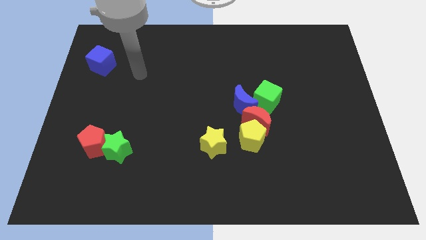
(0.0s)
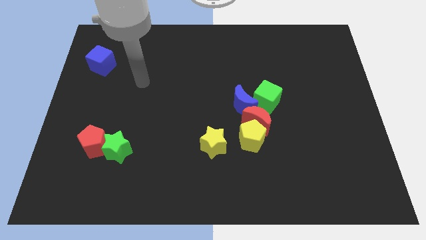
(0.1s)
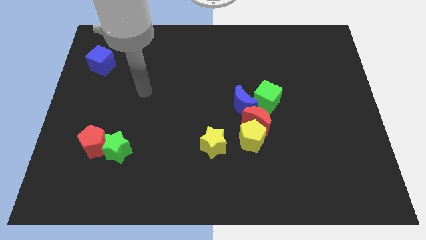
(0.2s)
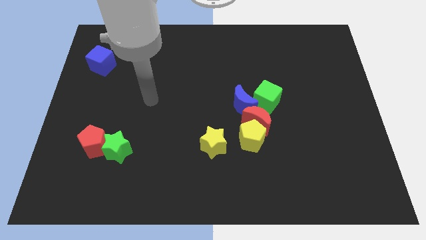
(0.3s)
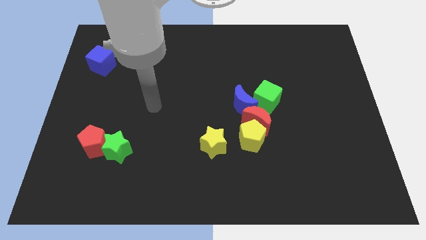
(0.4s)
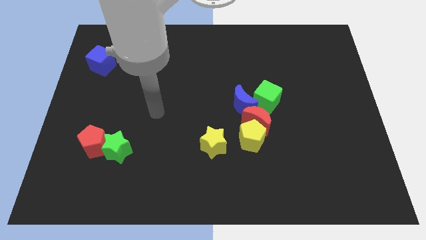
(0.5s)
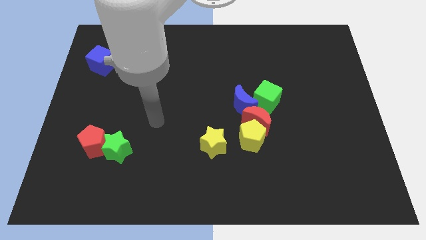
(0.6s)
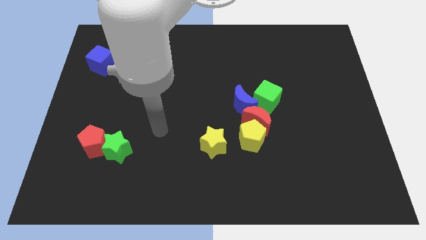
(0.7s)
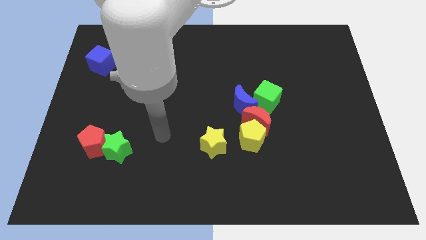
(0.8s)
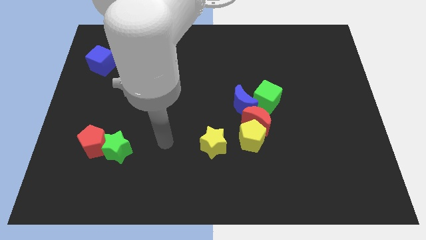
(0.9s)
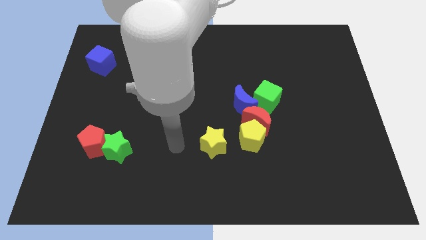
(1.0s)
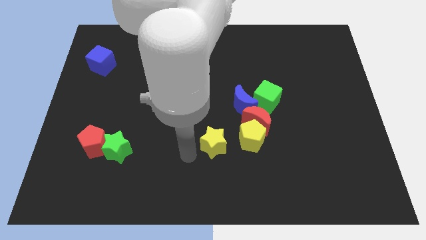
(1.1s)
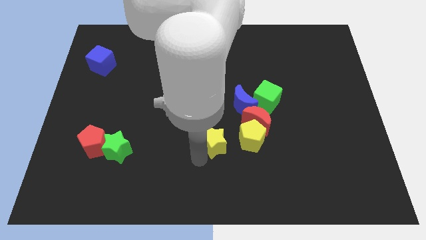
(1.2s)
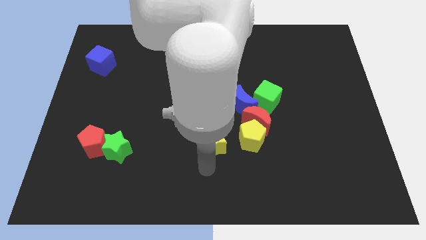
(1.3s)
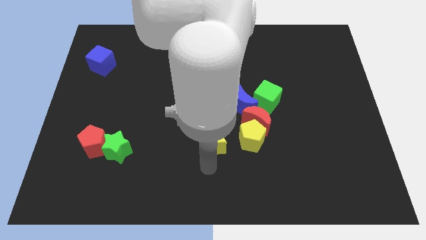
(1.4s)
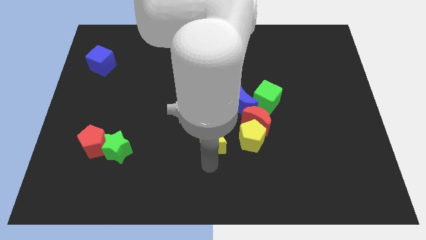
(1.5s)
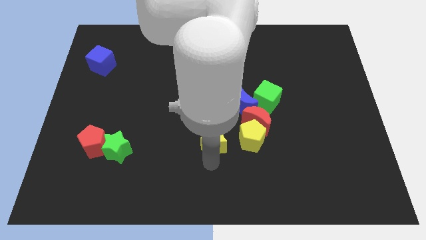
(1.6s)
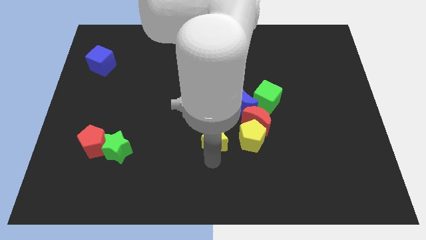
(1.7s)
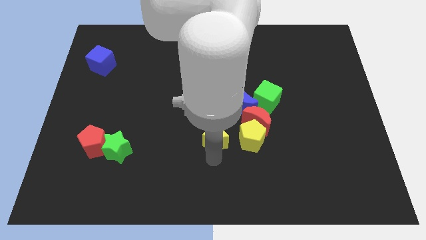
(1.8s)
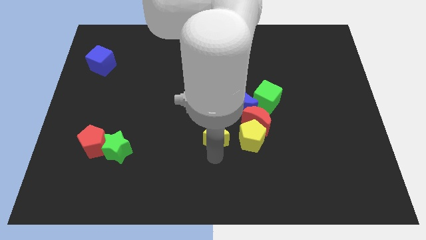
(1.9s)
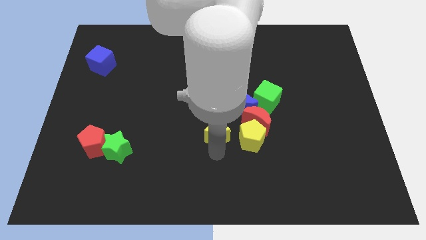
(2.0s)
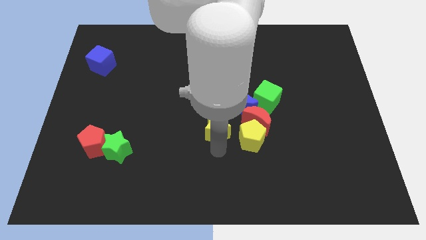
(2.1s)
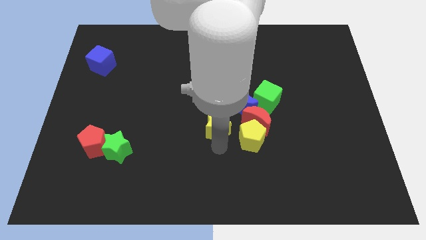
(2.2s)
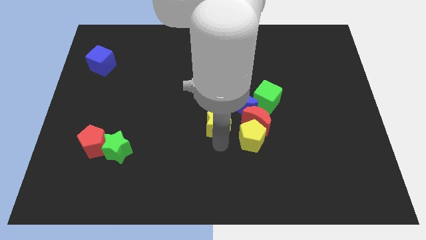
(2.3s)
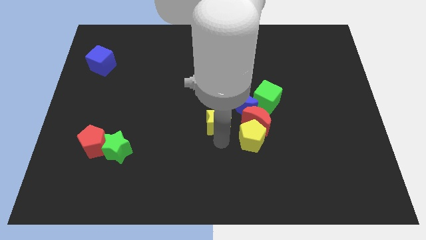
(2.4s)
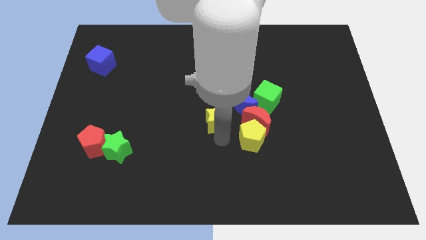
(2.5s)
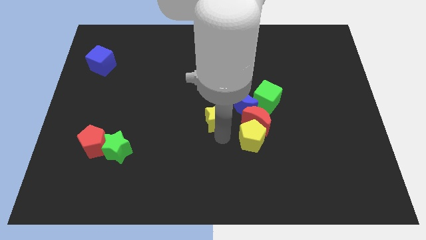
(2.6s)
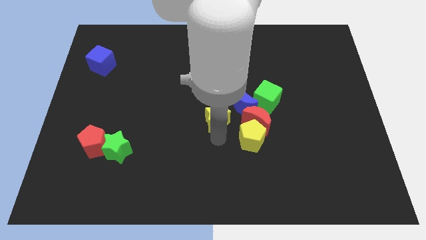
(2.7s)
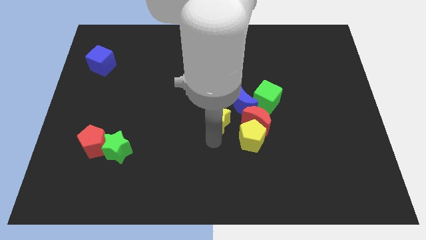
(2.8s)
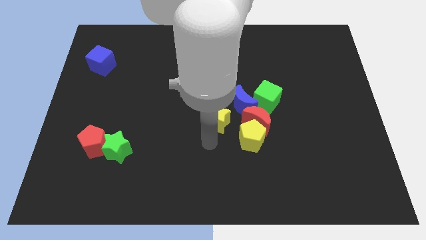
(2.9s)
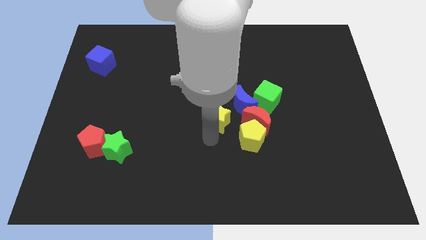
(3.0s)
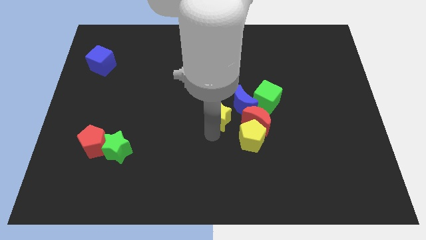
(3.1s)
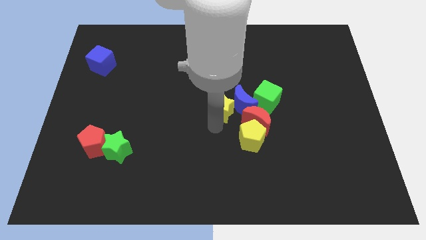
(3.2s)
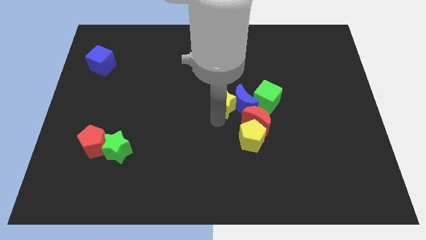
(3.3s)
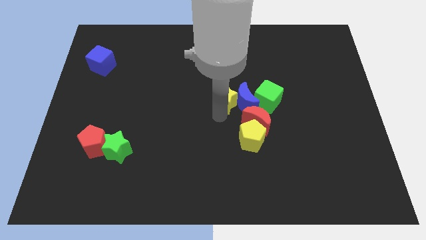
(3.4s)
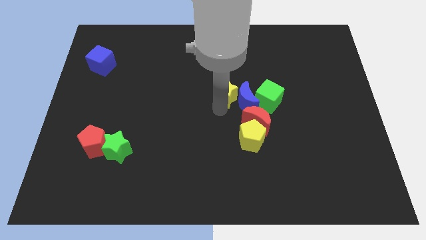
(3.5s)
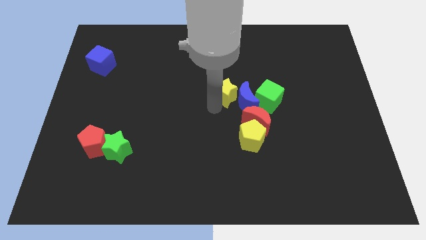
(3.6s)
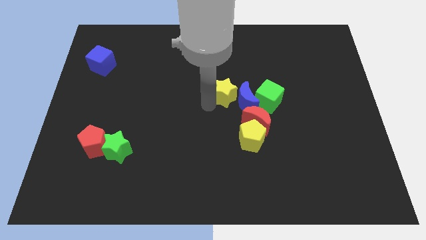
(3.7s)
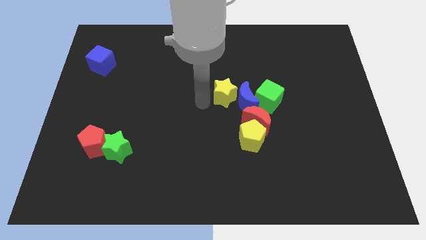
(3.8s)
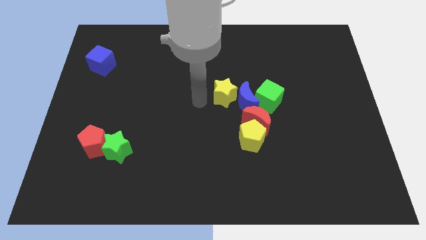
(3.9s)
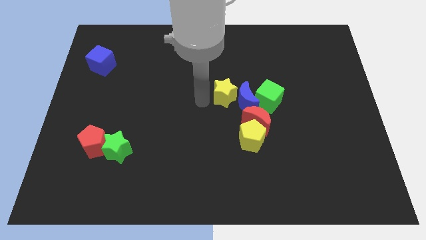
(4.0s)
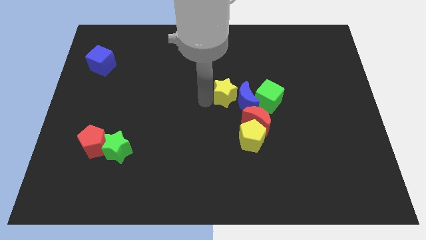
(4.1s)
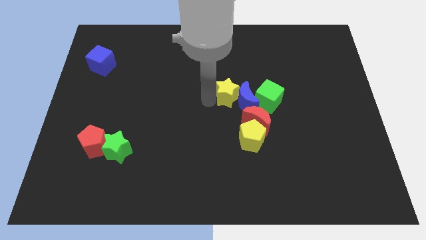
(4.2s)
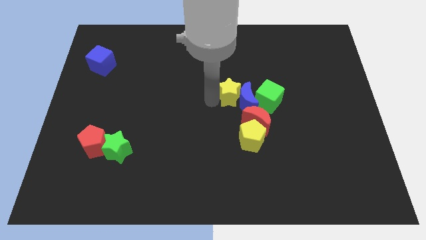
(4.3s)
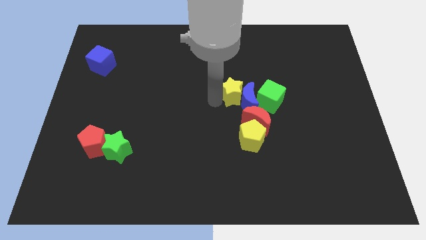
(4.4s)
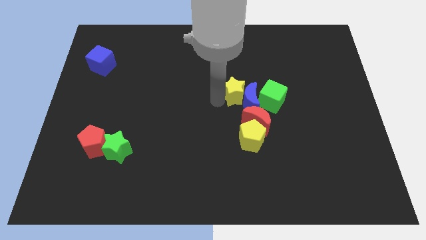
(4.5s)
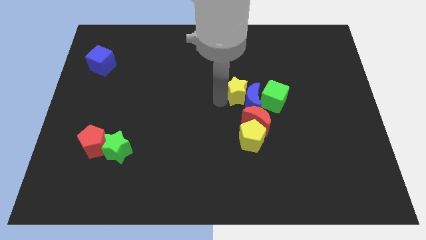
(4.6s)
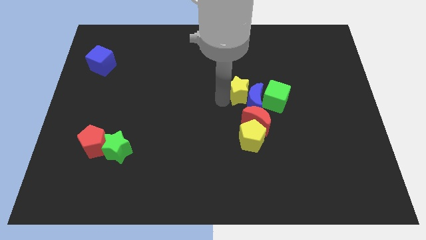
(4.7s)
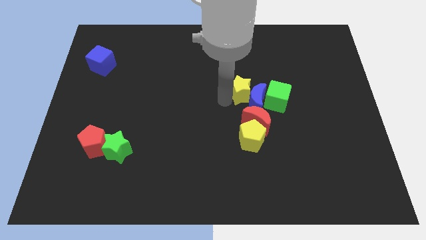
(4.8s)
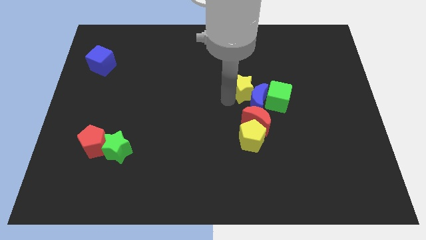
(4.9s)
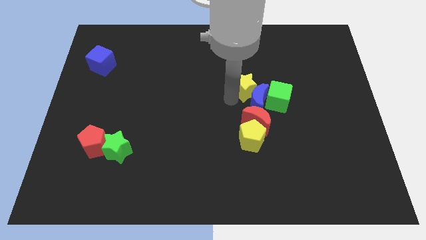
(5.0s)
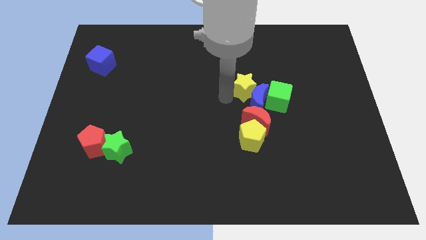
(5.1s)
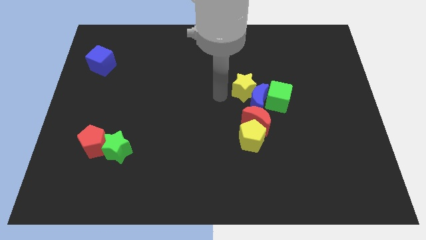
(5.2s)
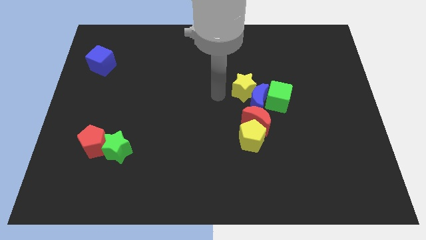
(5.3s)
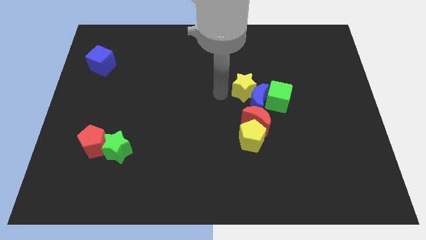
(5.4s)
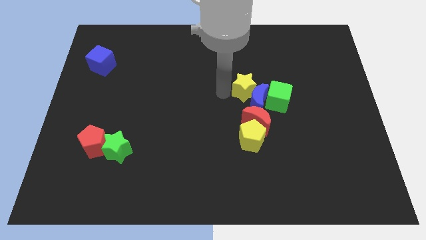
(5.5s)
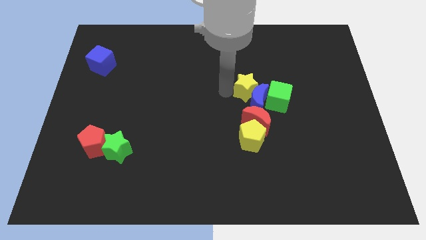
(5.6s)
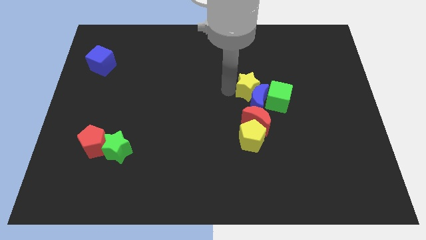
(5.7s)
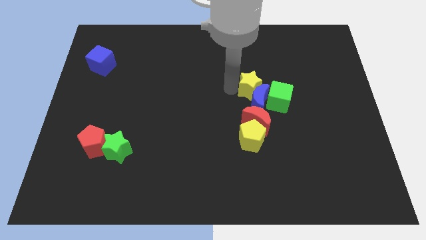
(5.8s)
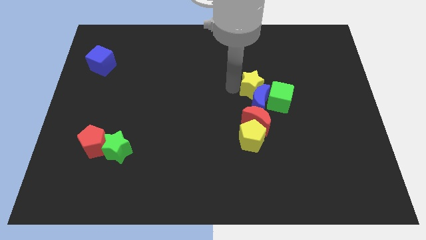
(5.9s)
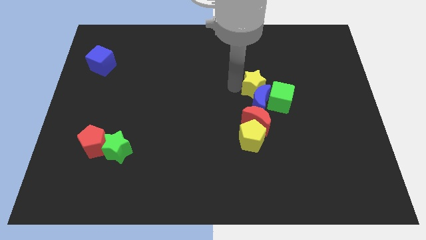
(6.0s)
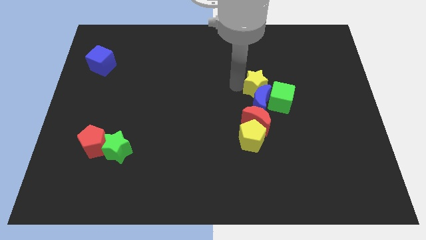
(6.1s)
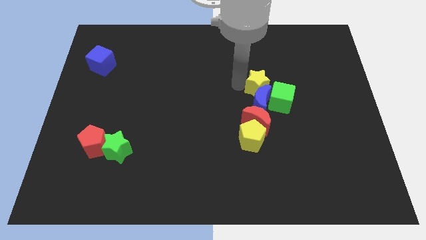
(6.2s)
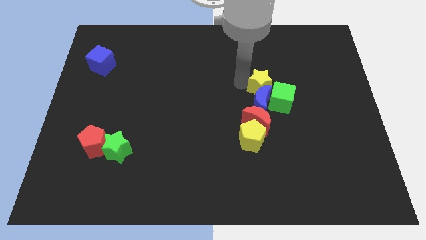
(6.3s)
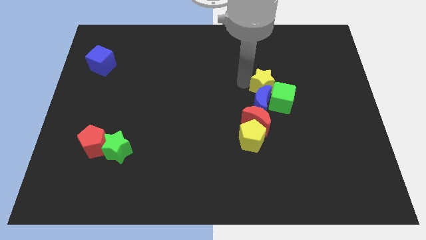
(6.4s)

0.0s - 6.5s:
push the yellow star up and to the right

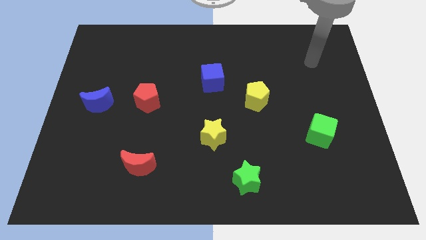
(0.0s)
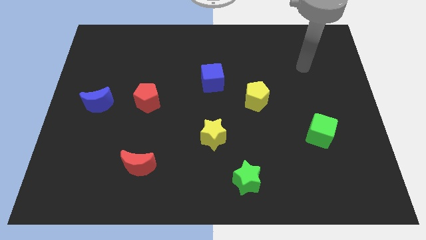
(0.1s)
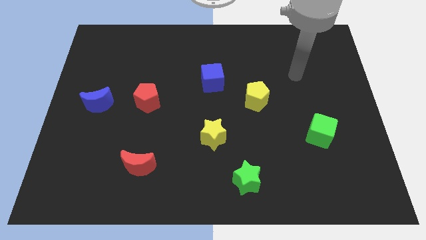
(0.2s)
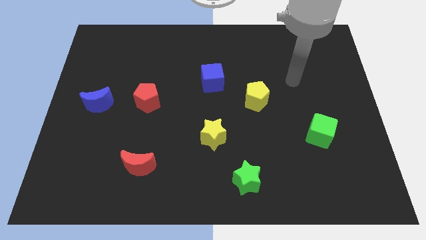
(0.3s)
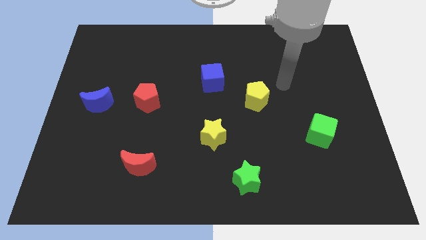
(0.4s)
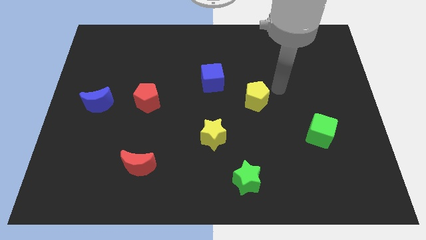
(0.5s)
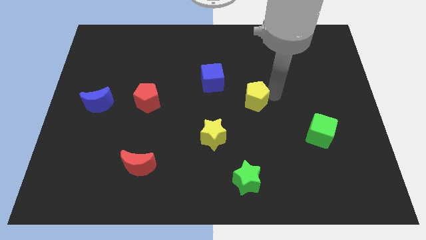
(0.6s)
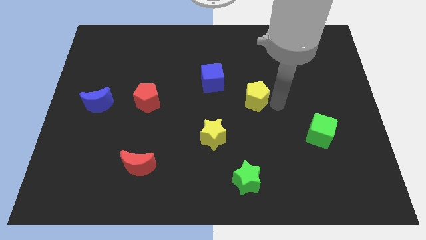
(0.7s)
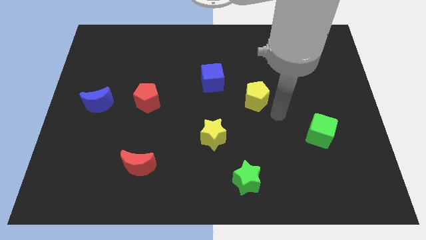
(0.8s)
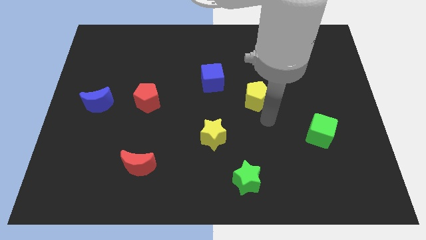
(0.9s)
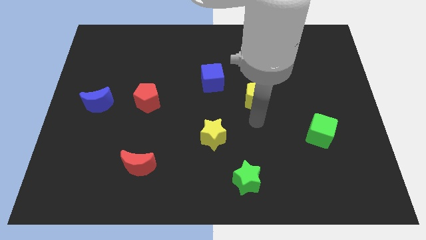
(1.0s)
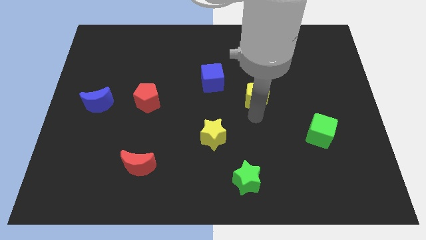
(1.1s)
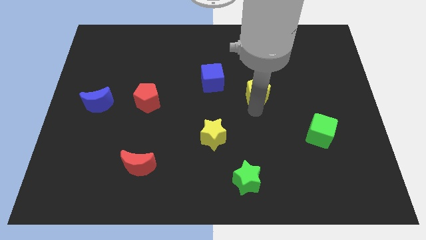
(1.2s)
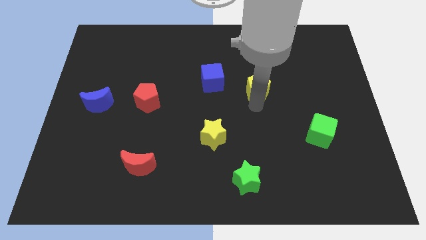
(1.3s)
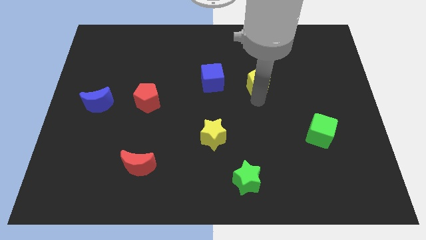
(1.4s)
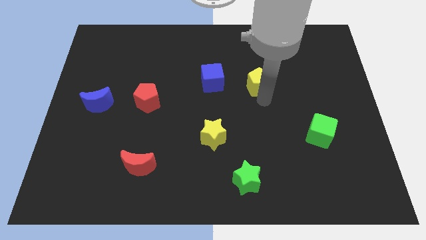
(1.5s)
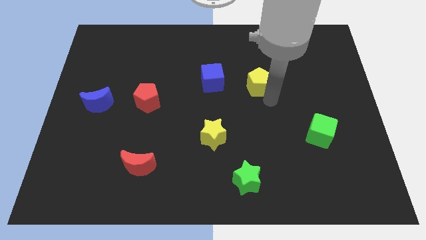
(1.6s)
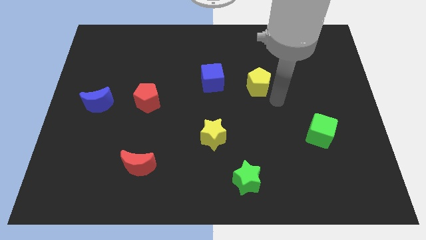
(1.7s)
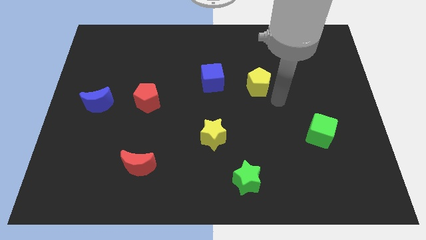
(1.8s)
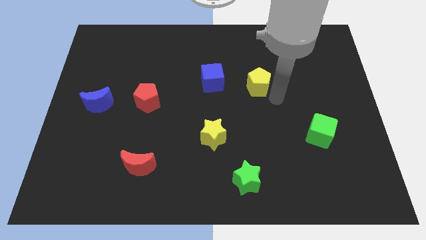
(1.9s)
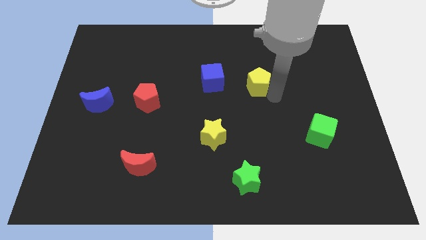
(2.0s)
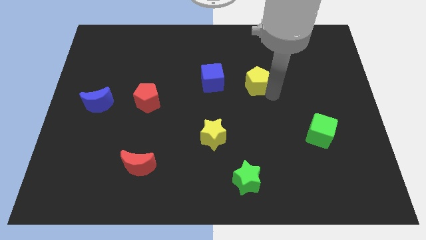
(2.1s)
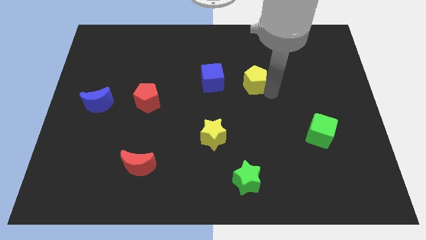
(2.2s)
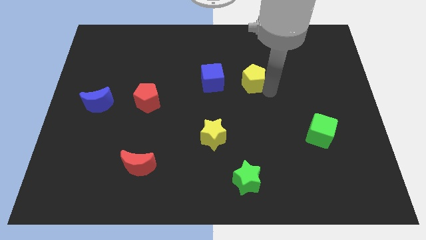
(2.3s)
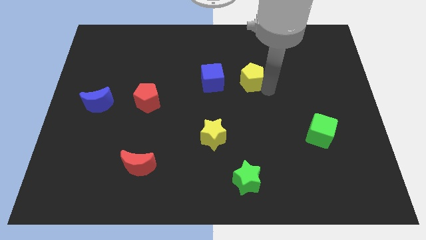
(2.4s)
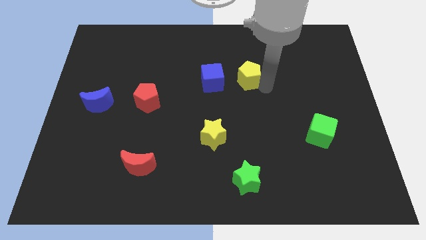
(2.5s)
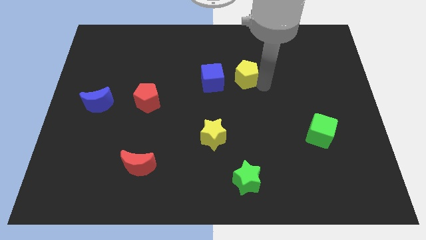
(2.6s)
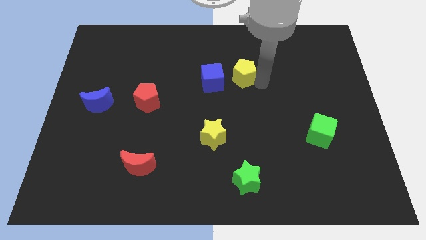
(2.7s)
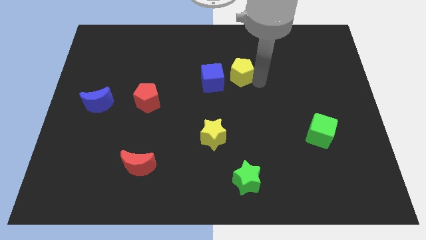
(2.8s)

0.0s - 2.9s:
move the yellow pentagon a little upwards and to the left diagonally
